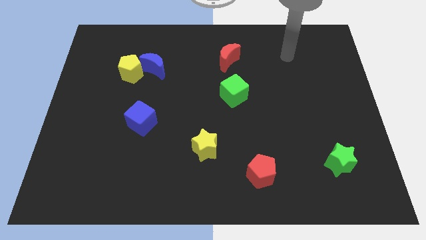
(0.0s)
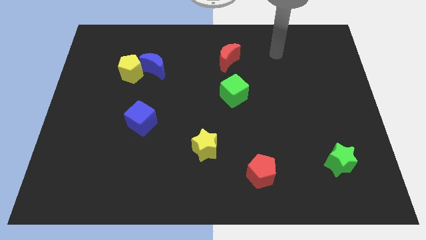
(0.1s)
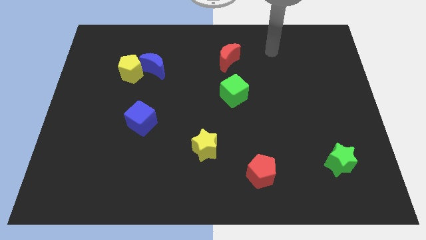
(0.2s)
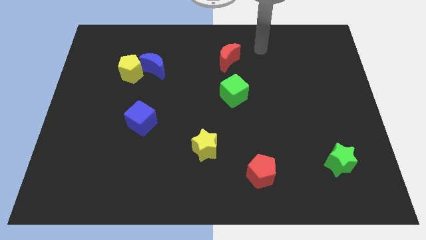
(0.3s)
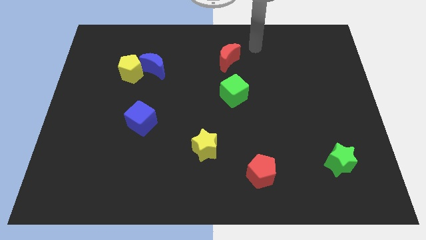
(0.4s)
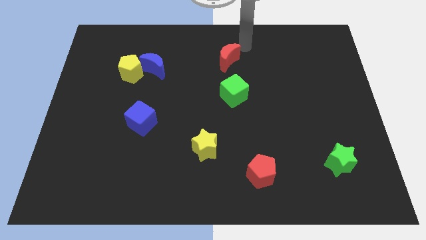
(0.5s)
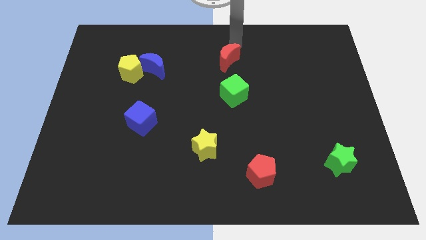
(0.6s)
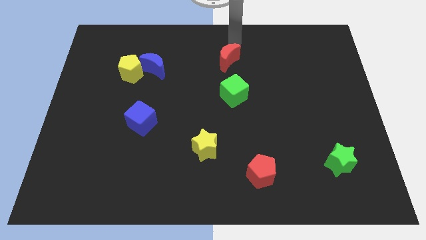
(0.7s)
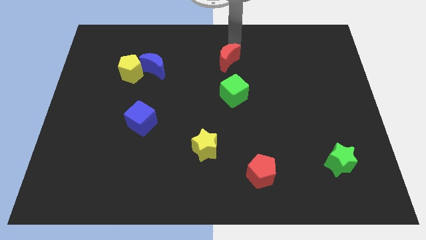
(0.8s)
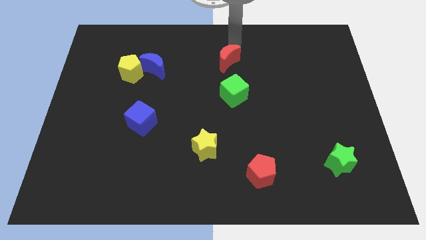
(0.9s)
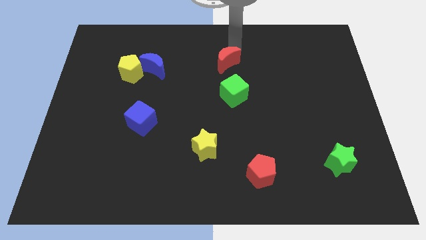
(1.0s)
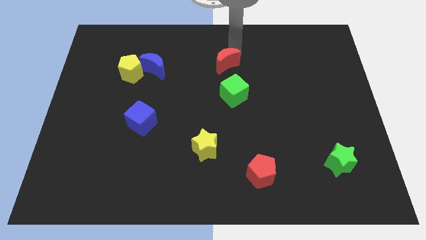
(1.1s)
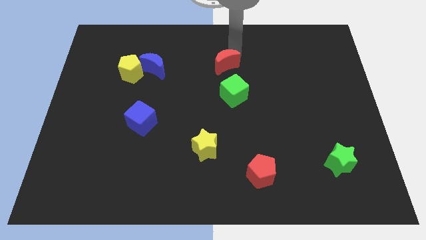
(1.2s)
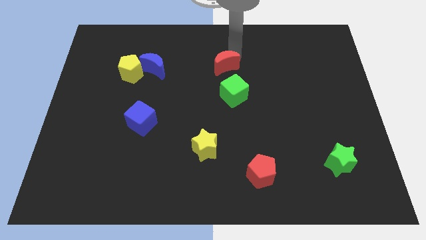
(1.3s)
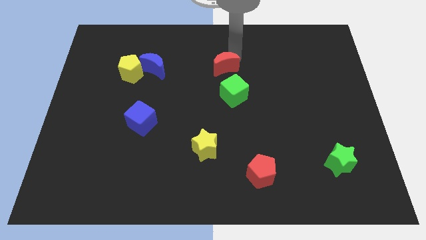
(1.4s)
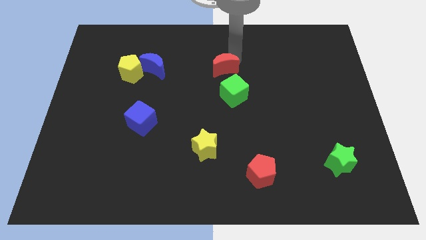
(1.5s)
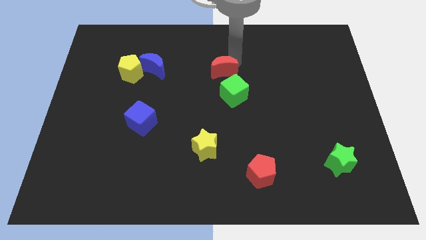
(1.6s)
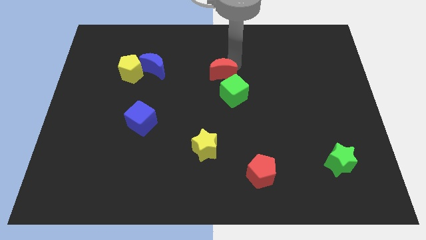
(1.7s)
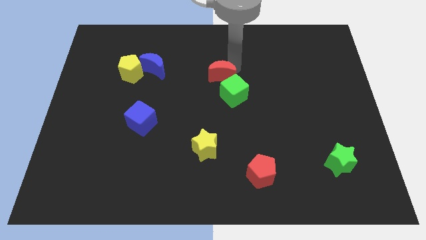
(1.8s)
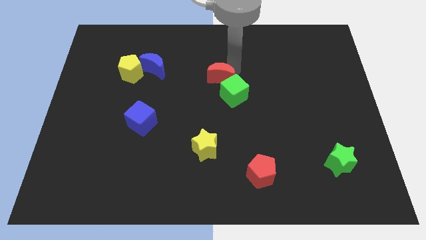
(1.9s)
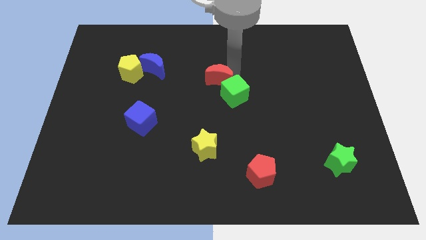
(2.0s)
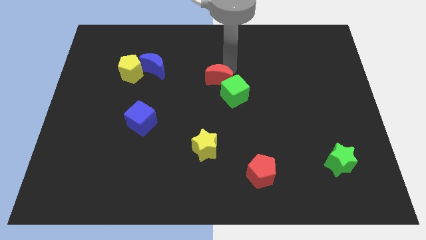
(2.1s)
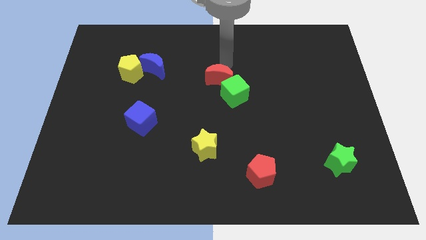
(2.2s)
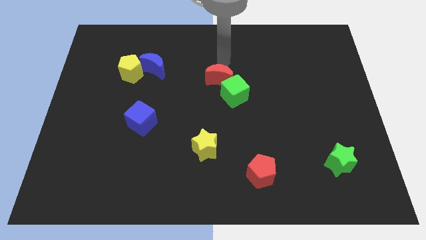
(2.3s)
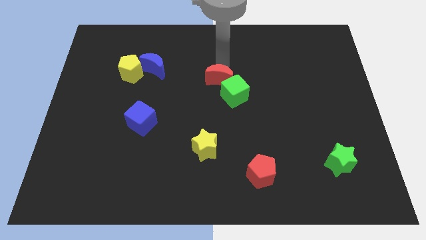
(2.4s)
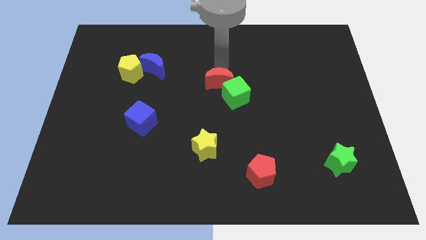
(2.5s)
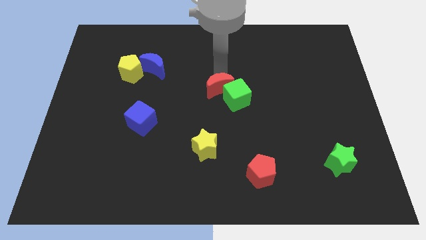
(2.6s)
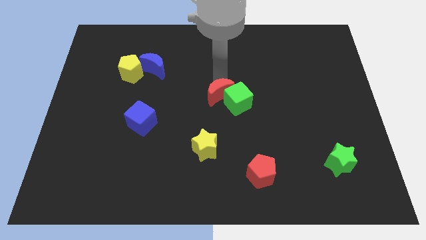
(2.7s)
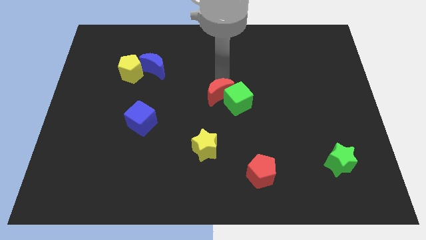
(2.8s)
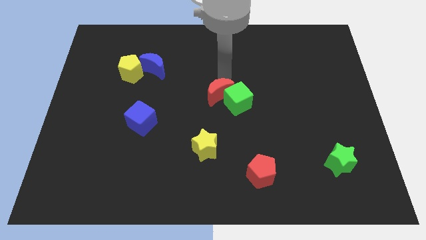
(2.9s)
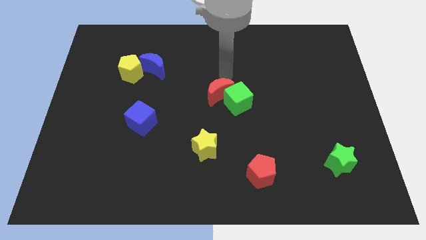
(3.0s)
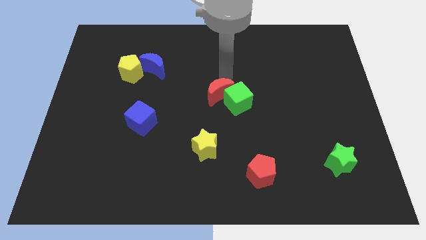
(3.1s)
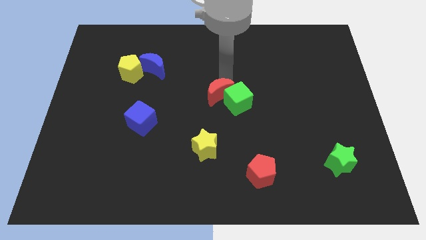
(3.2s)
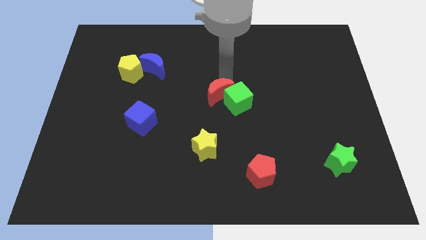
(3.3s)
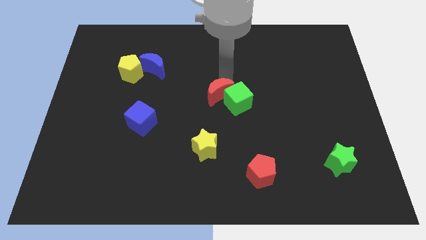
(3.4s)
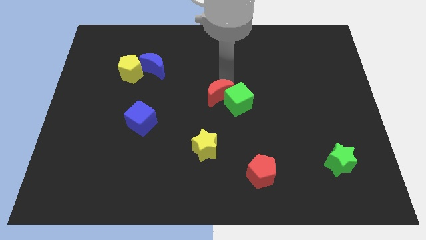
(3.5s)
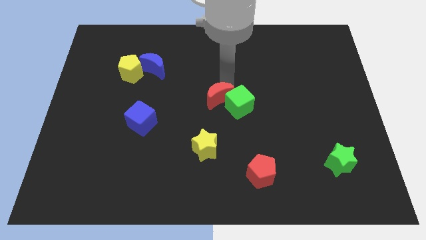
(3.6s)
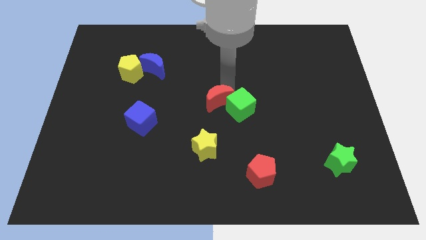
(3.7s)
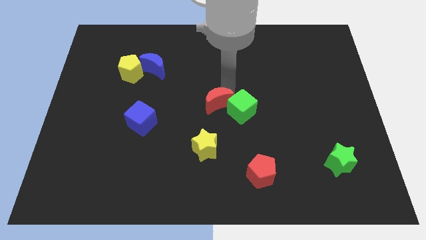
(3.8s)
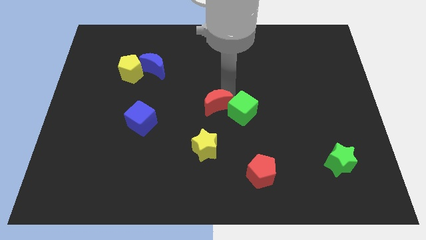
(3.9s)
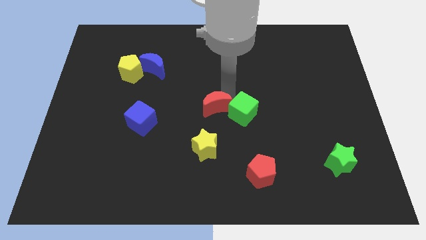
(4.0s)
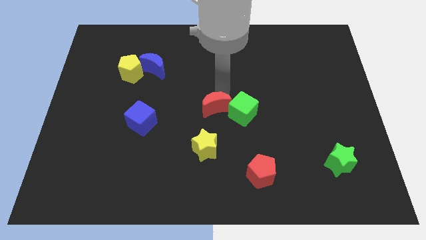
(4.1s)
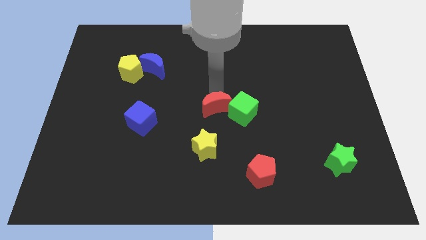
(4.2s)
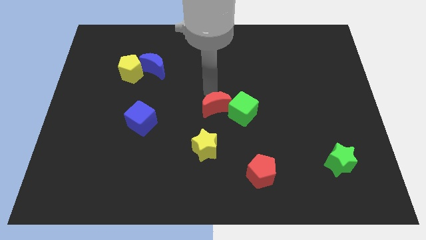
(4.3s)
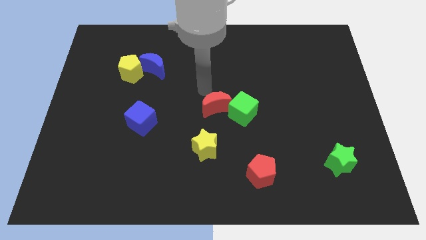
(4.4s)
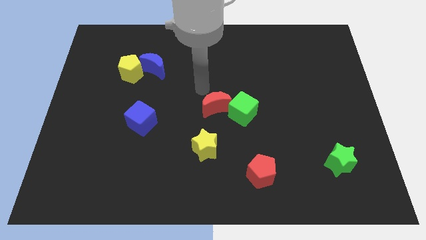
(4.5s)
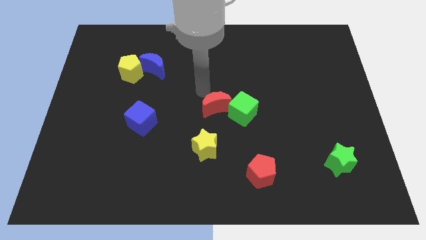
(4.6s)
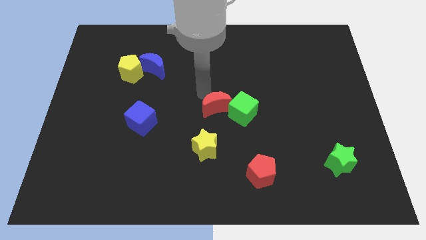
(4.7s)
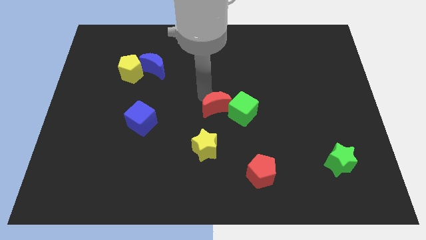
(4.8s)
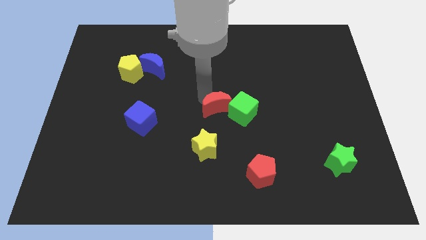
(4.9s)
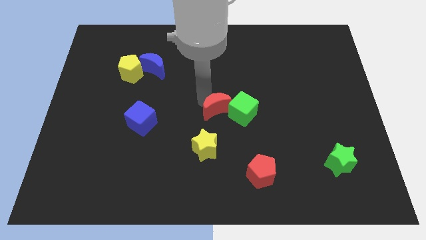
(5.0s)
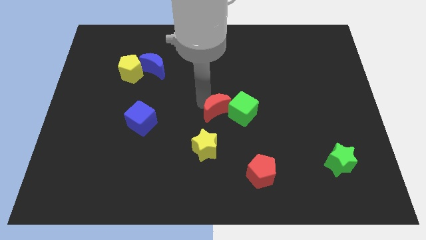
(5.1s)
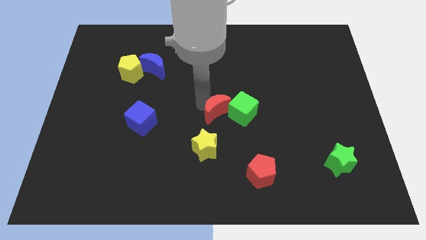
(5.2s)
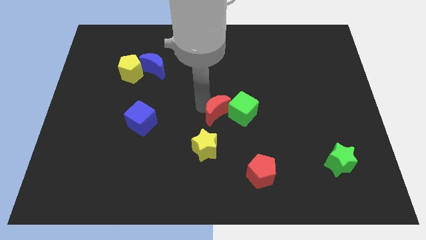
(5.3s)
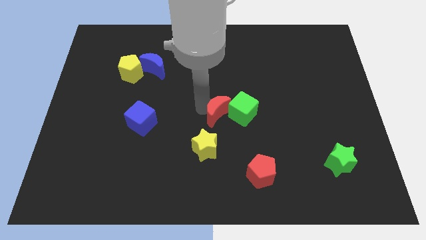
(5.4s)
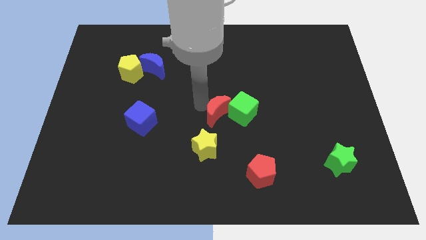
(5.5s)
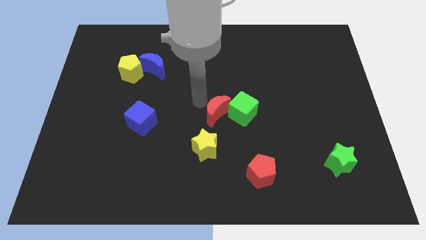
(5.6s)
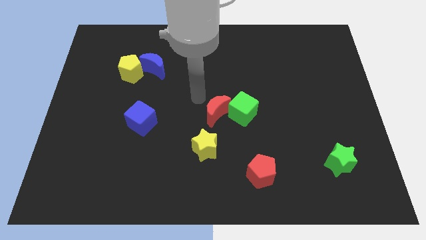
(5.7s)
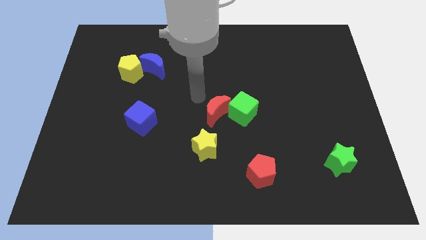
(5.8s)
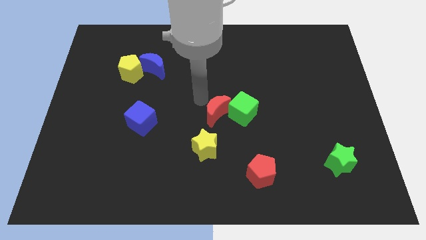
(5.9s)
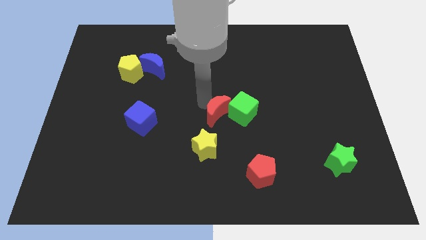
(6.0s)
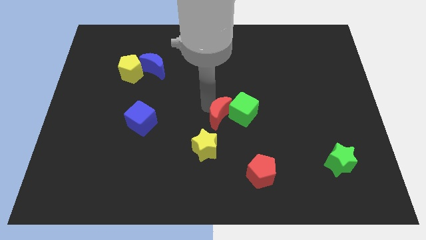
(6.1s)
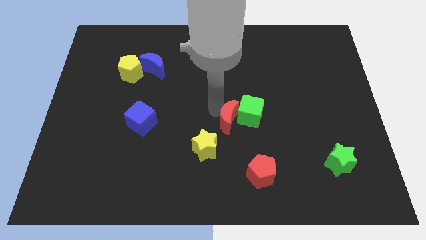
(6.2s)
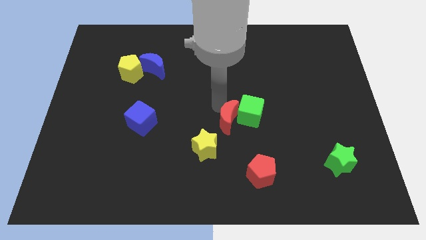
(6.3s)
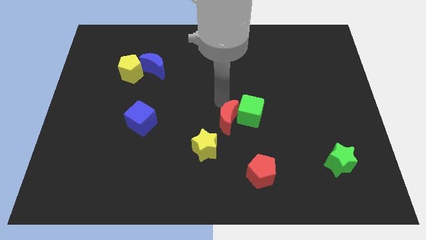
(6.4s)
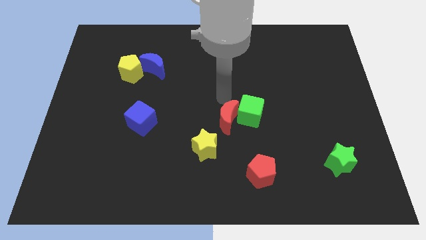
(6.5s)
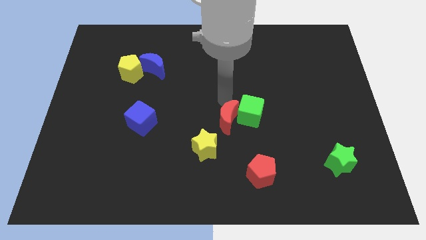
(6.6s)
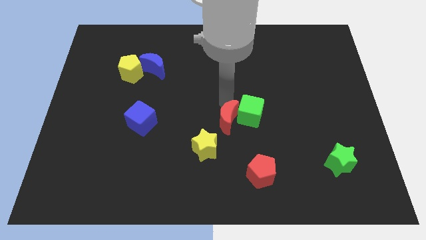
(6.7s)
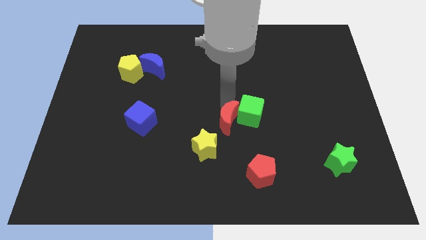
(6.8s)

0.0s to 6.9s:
slide the red moon down

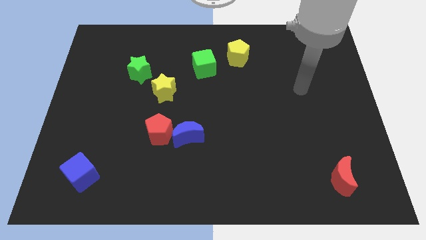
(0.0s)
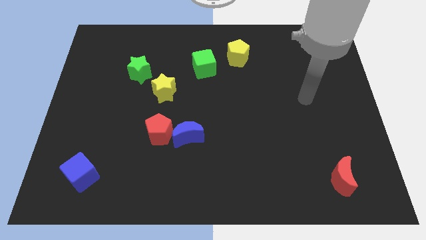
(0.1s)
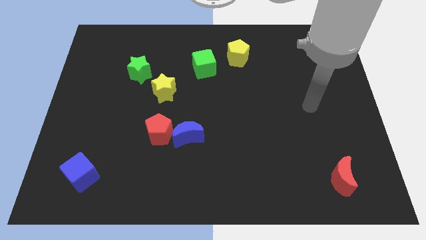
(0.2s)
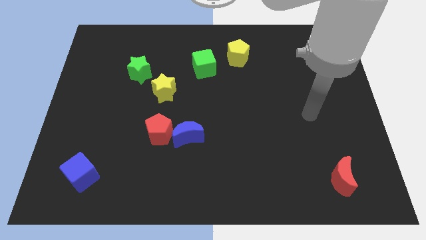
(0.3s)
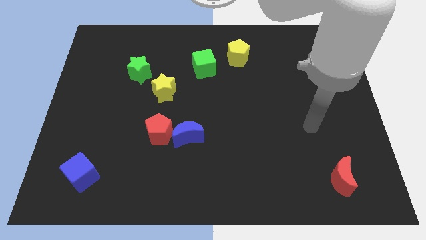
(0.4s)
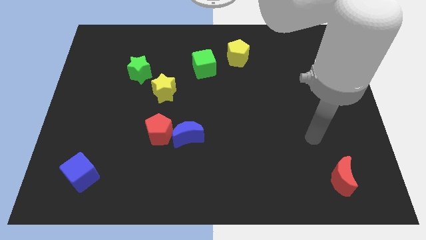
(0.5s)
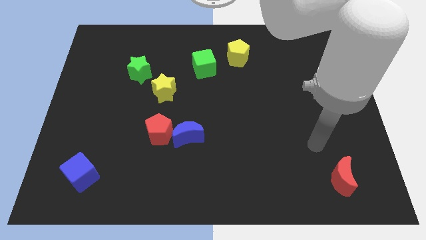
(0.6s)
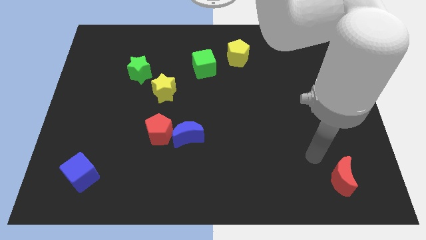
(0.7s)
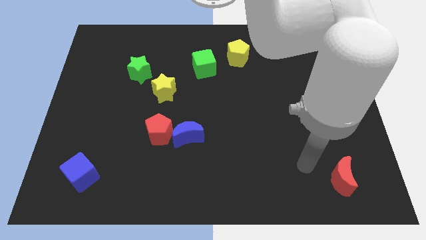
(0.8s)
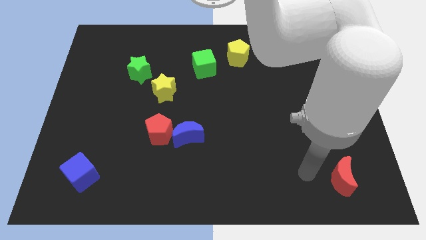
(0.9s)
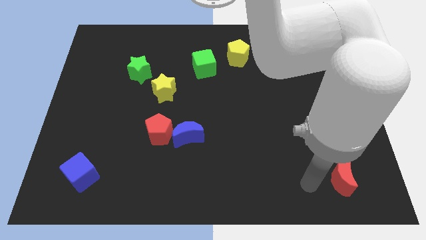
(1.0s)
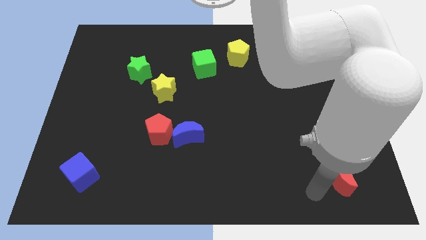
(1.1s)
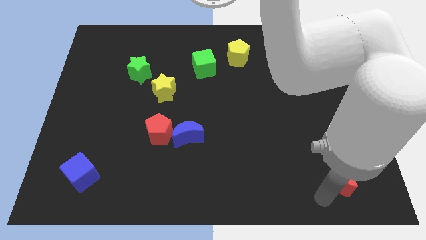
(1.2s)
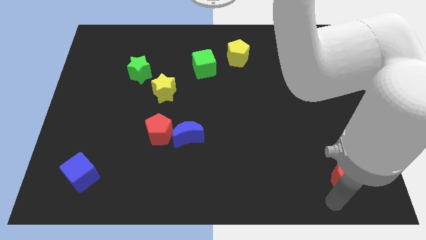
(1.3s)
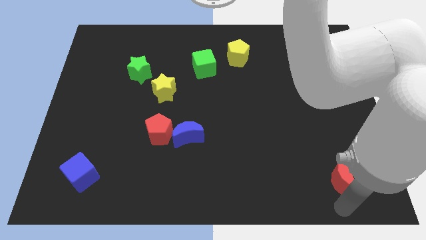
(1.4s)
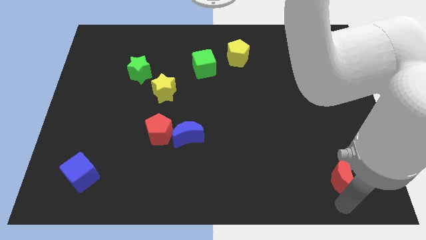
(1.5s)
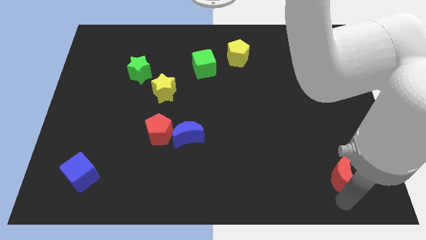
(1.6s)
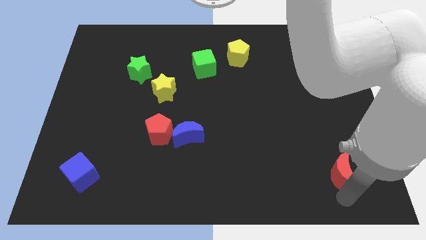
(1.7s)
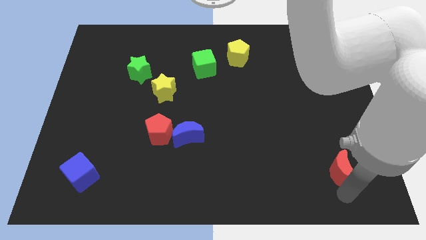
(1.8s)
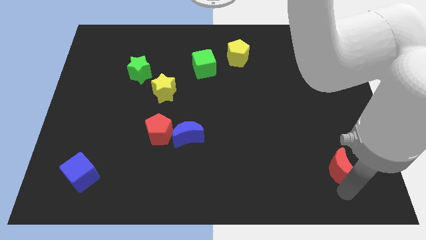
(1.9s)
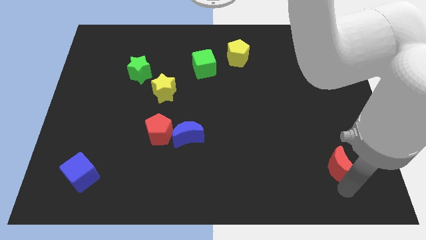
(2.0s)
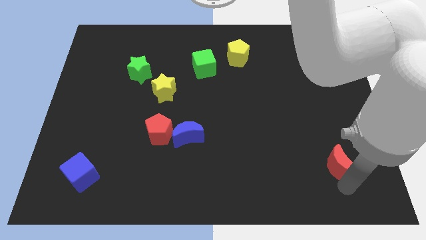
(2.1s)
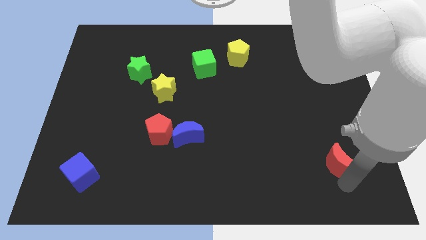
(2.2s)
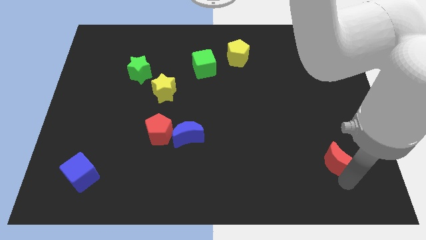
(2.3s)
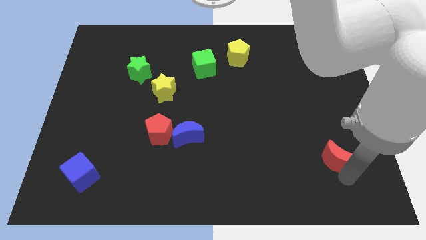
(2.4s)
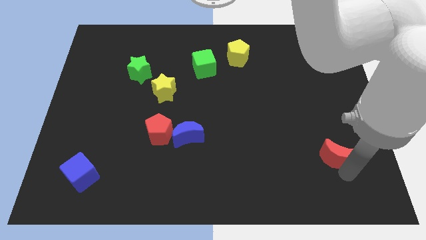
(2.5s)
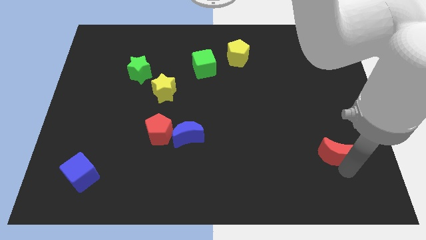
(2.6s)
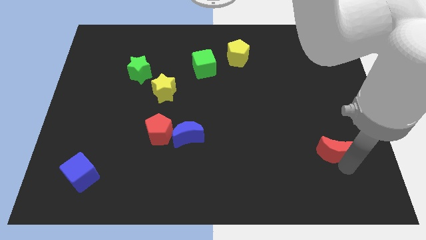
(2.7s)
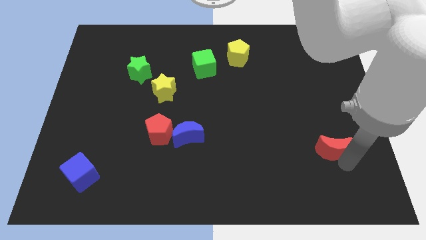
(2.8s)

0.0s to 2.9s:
move the red moon up slightly
